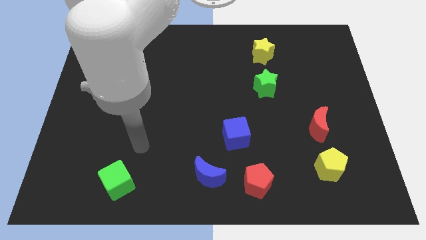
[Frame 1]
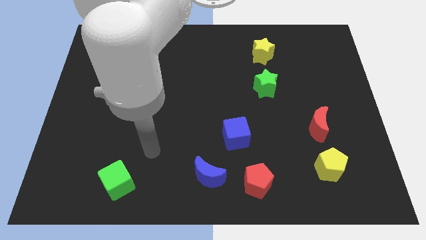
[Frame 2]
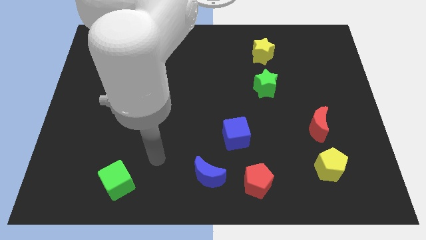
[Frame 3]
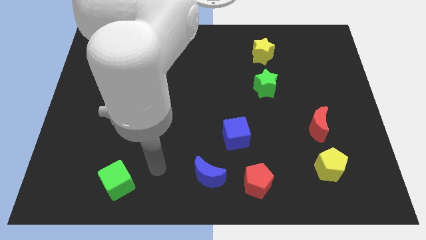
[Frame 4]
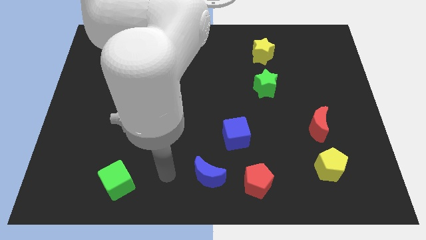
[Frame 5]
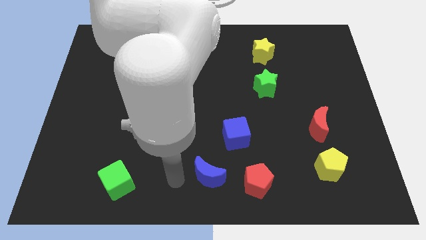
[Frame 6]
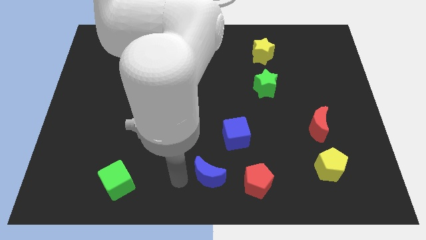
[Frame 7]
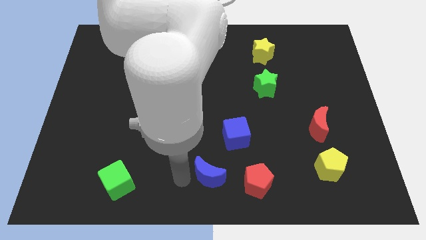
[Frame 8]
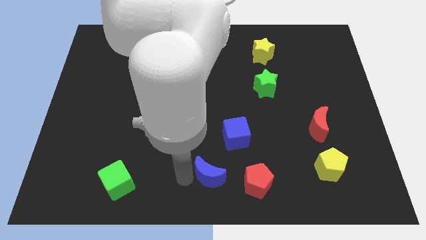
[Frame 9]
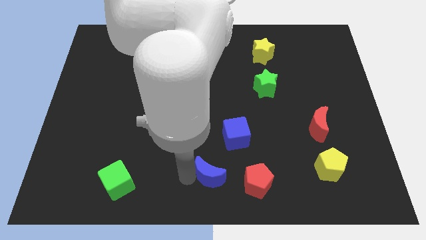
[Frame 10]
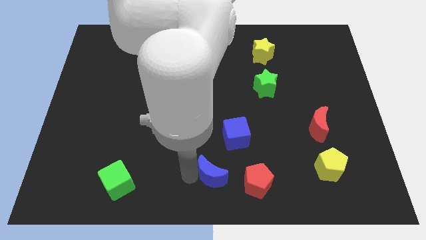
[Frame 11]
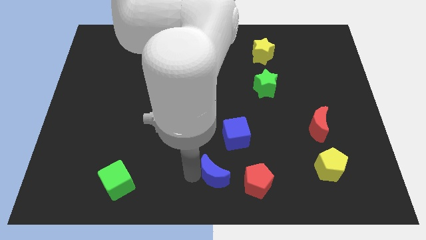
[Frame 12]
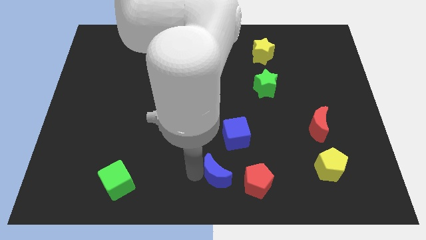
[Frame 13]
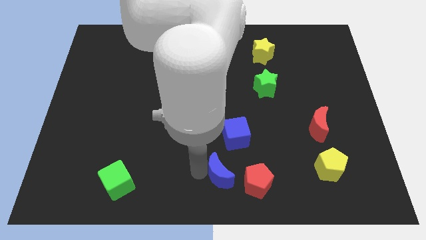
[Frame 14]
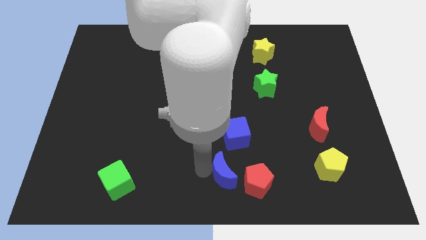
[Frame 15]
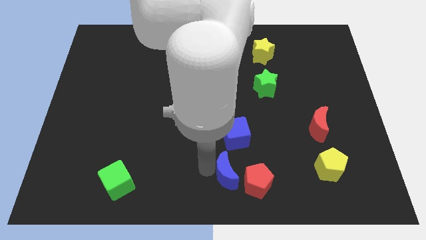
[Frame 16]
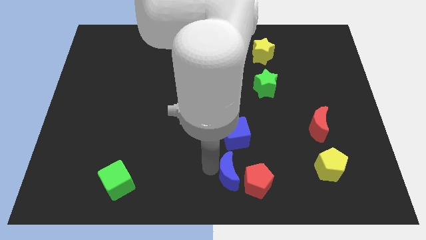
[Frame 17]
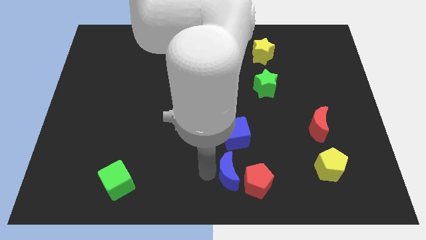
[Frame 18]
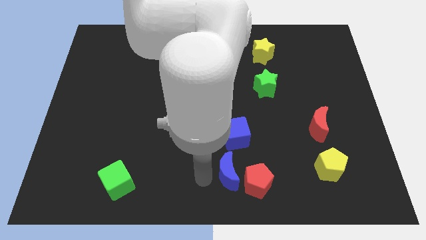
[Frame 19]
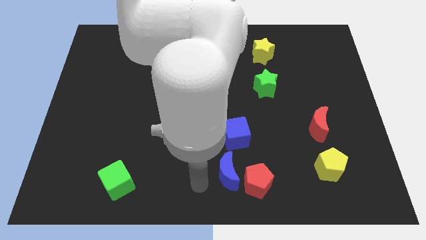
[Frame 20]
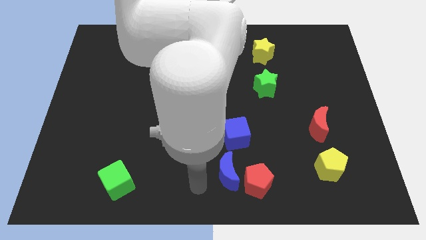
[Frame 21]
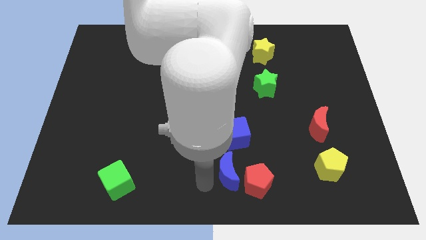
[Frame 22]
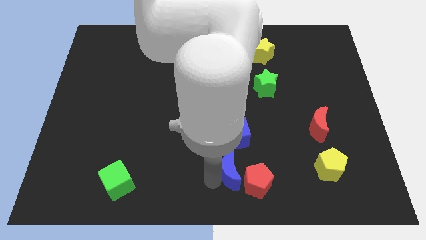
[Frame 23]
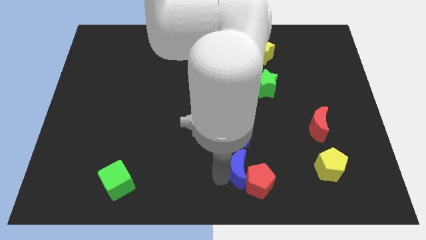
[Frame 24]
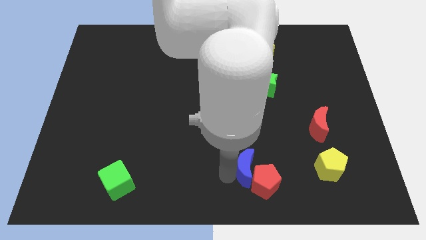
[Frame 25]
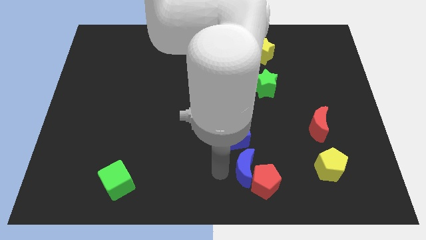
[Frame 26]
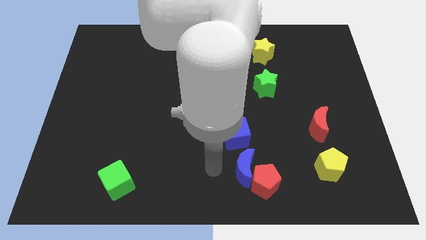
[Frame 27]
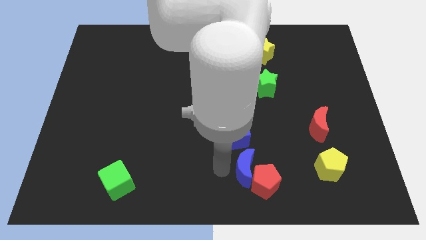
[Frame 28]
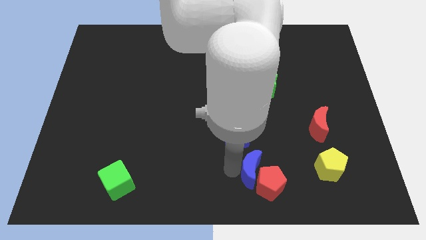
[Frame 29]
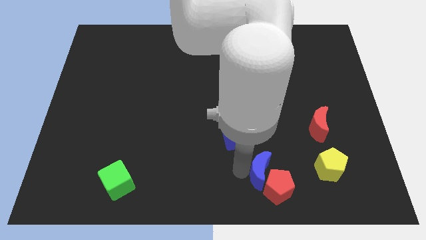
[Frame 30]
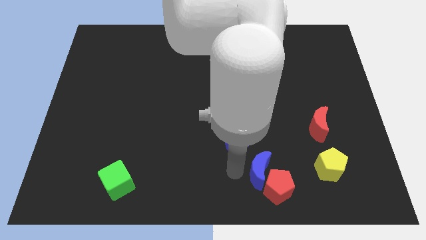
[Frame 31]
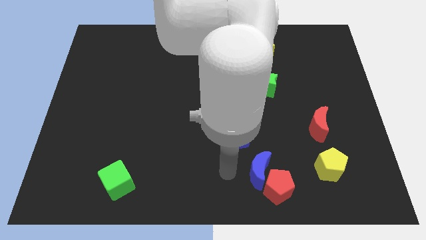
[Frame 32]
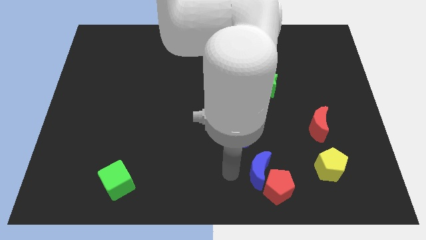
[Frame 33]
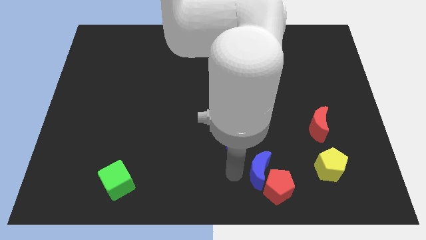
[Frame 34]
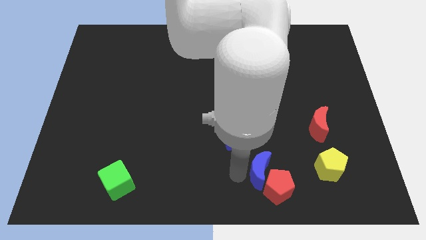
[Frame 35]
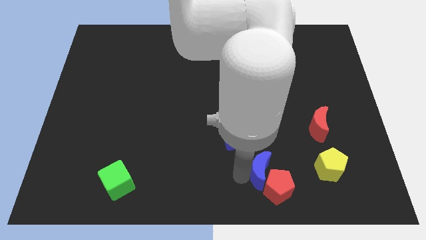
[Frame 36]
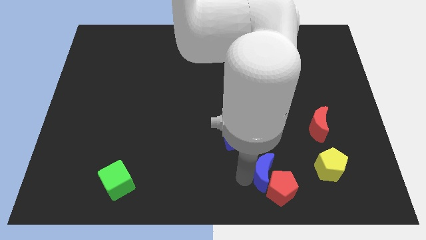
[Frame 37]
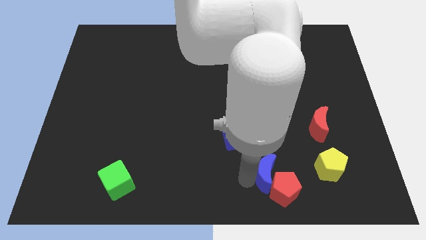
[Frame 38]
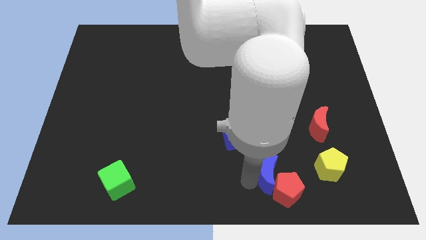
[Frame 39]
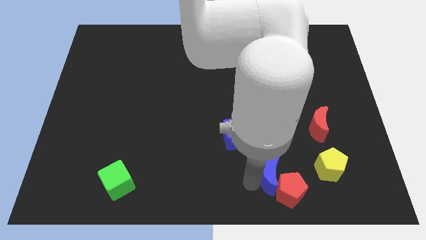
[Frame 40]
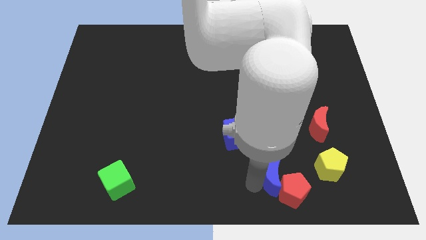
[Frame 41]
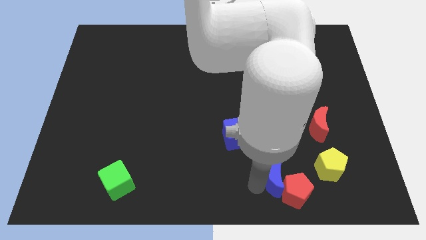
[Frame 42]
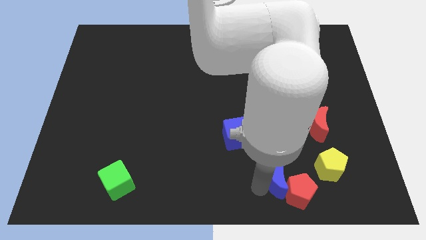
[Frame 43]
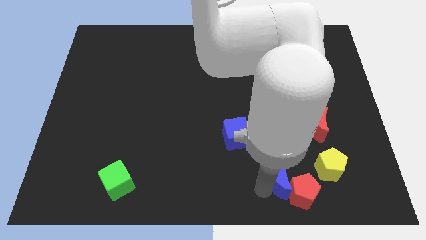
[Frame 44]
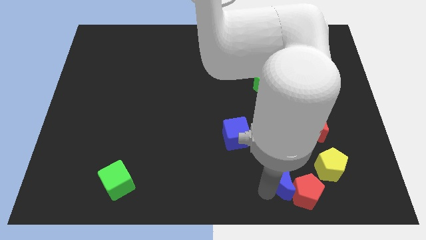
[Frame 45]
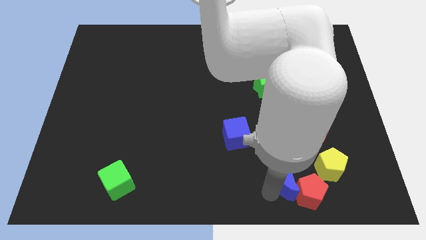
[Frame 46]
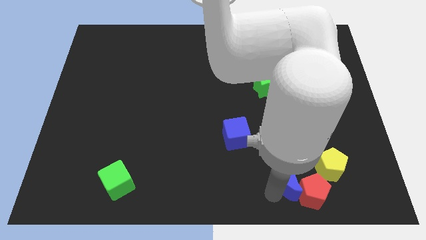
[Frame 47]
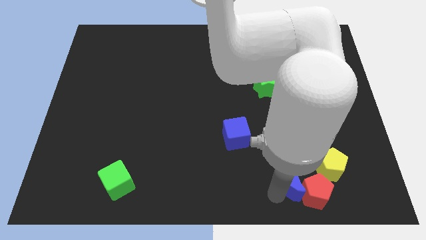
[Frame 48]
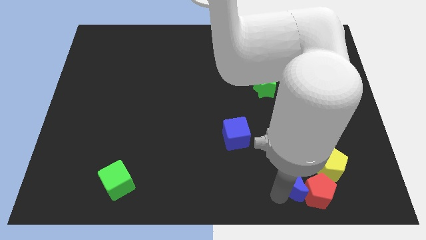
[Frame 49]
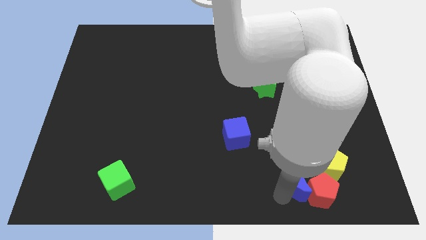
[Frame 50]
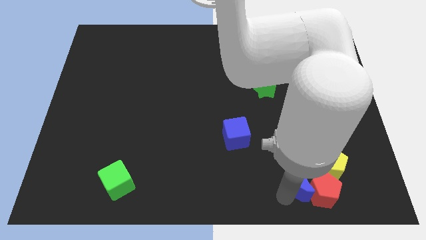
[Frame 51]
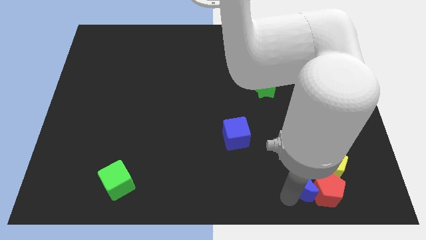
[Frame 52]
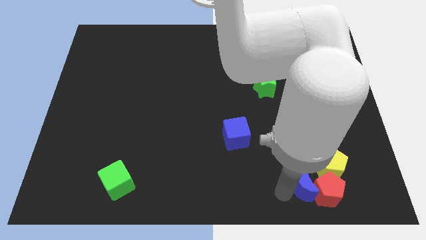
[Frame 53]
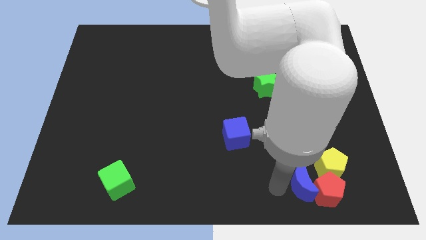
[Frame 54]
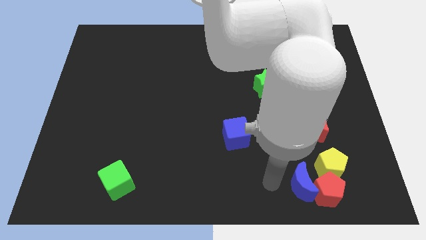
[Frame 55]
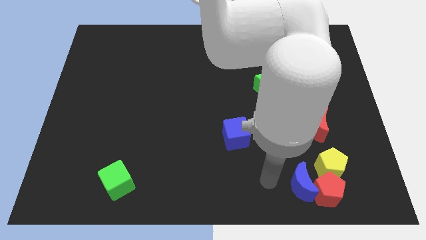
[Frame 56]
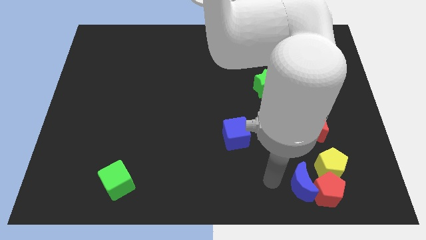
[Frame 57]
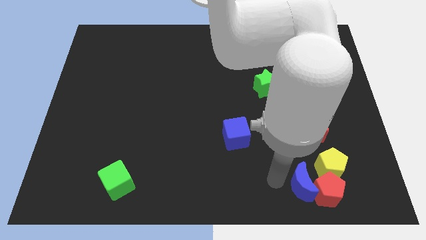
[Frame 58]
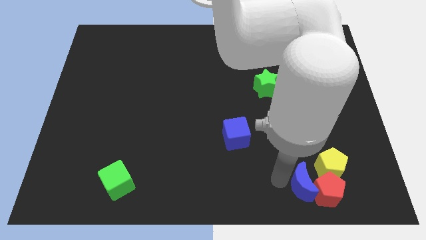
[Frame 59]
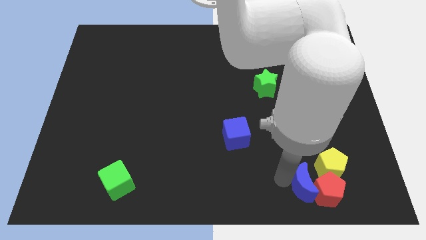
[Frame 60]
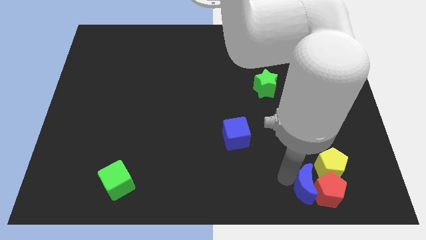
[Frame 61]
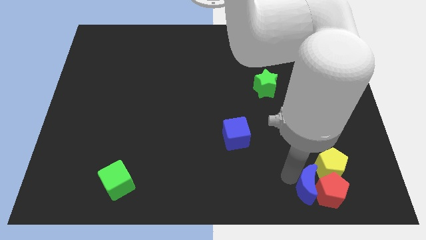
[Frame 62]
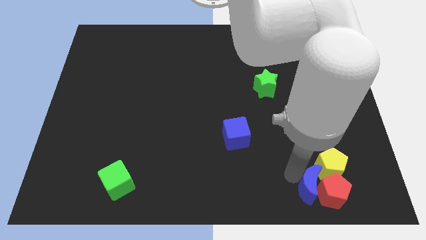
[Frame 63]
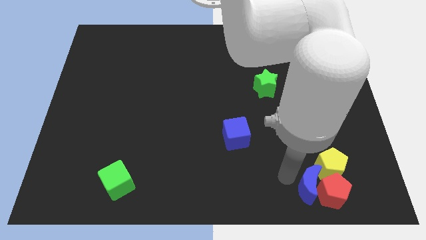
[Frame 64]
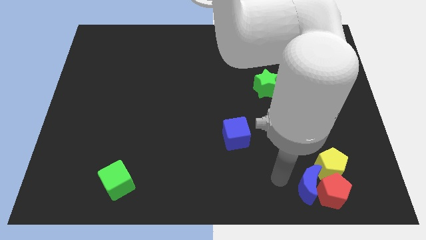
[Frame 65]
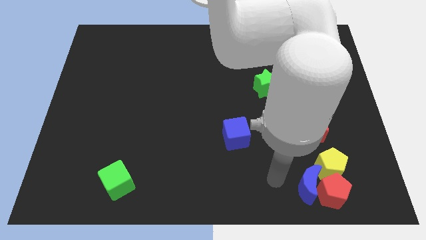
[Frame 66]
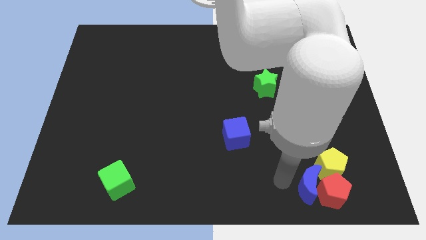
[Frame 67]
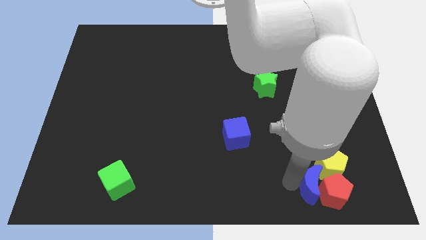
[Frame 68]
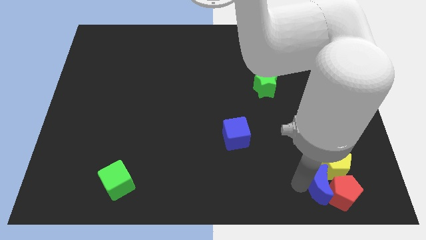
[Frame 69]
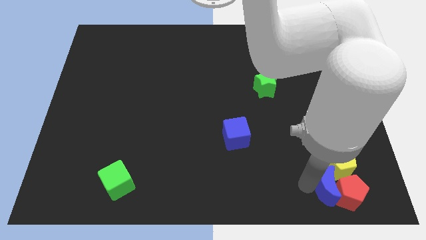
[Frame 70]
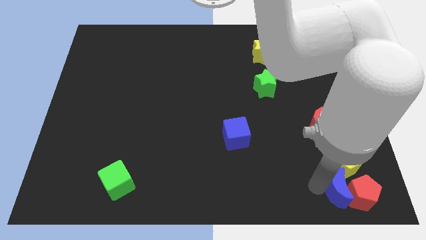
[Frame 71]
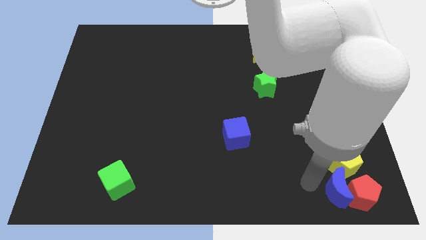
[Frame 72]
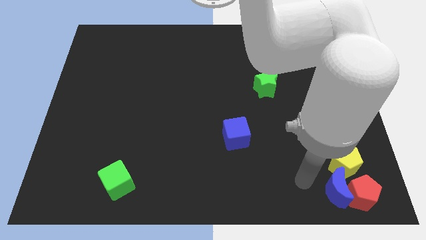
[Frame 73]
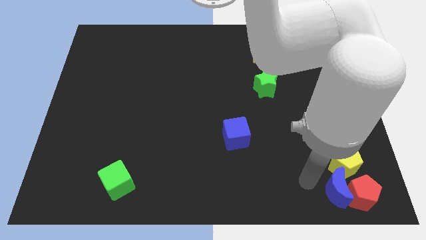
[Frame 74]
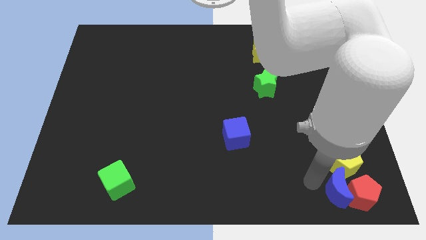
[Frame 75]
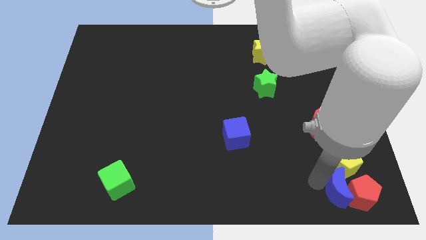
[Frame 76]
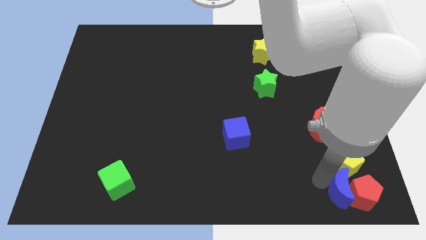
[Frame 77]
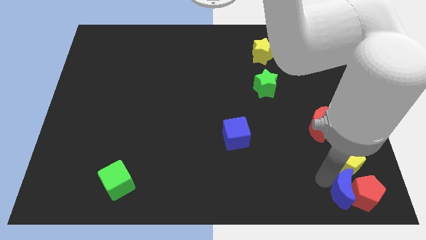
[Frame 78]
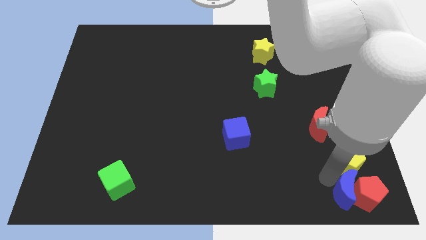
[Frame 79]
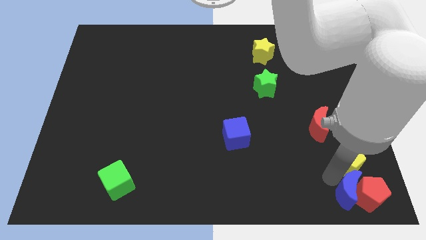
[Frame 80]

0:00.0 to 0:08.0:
slide the blue moon to the bottom right of the board
